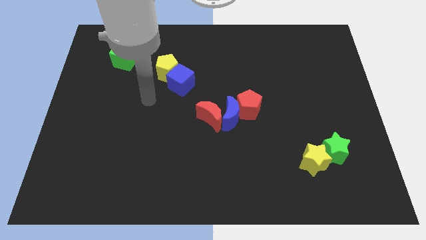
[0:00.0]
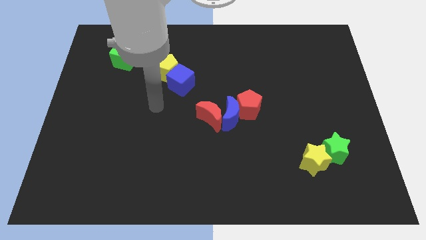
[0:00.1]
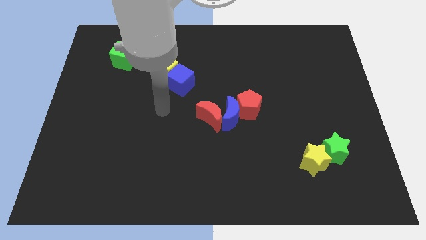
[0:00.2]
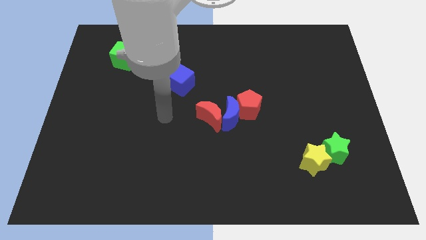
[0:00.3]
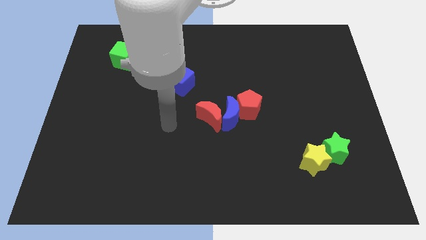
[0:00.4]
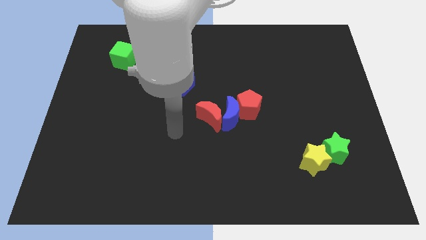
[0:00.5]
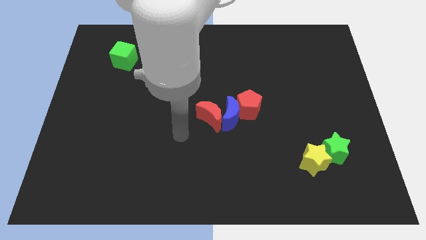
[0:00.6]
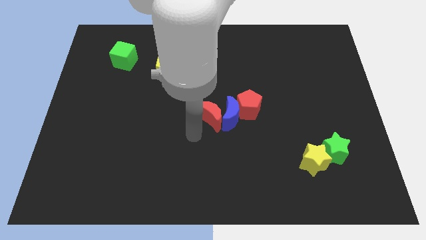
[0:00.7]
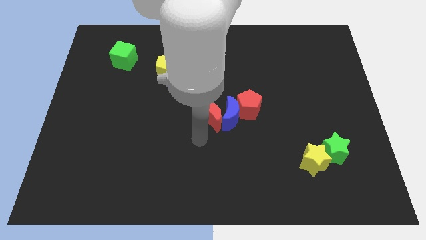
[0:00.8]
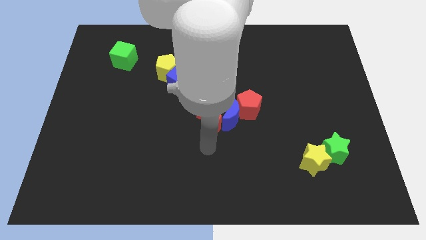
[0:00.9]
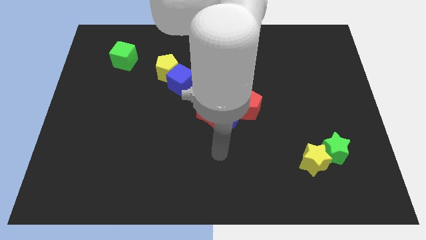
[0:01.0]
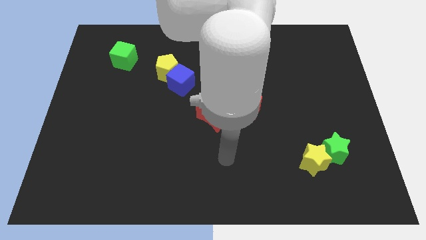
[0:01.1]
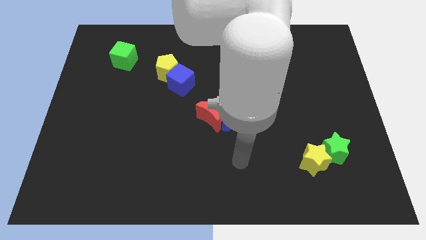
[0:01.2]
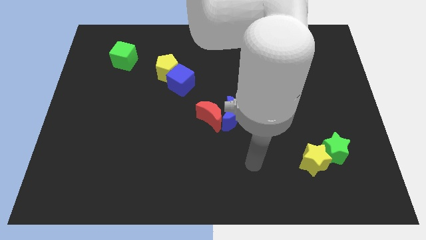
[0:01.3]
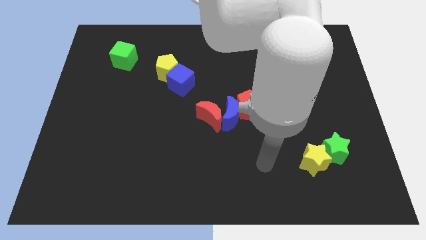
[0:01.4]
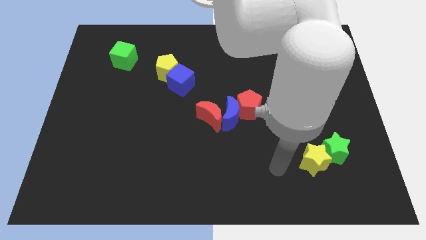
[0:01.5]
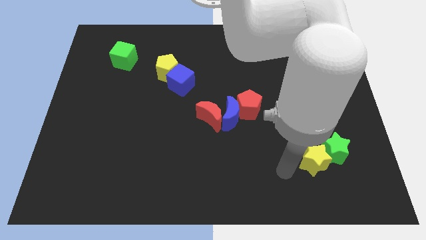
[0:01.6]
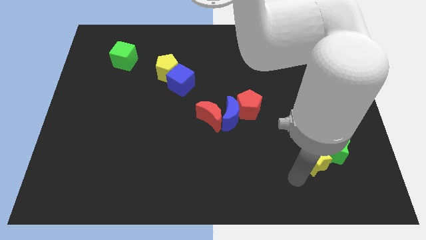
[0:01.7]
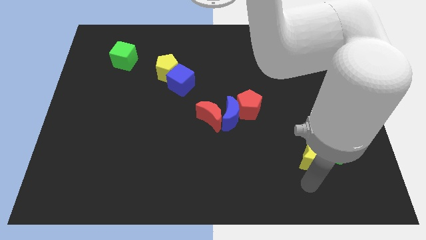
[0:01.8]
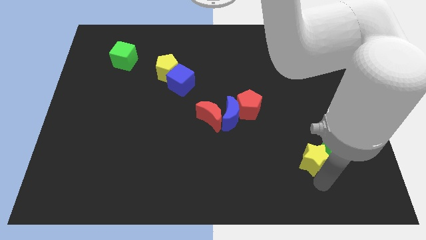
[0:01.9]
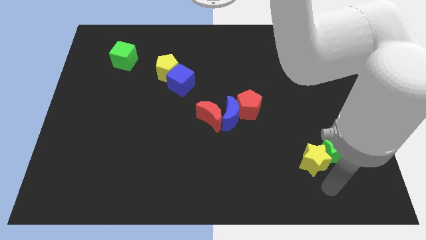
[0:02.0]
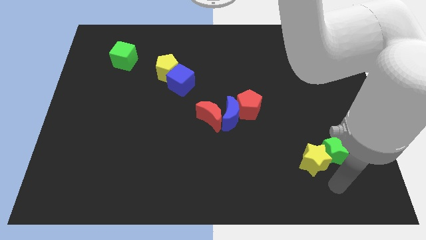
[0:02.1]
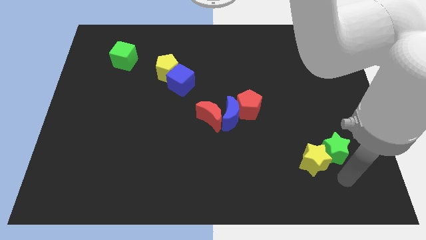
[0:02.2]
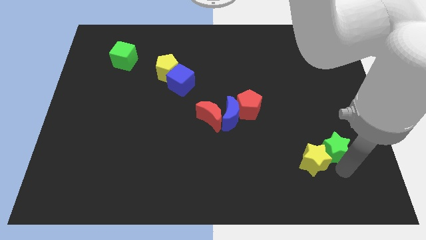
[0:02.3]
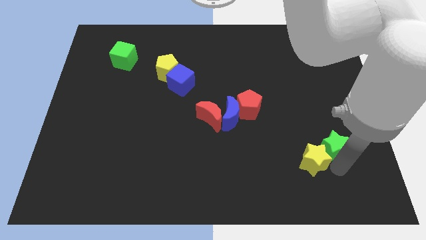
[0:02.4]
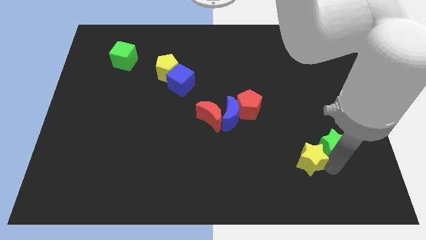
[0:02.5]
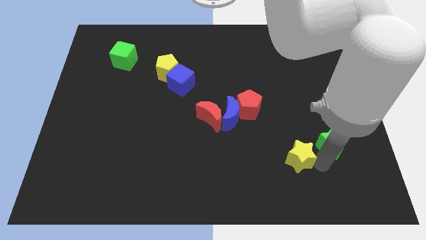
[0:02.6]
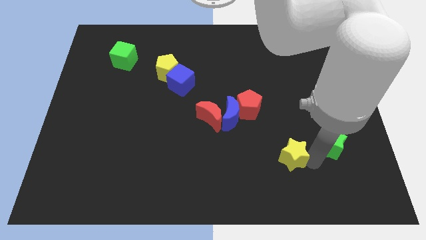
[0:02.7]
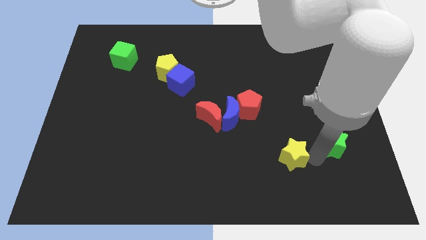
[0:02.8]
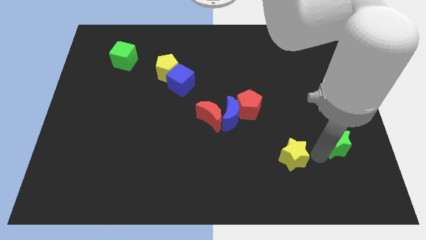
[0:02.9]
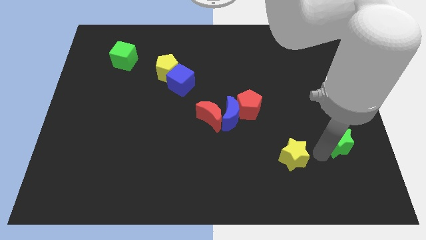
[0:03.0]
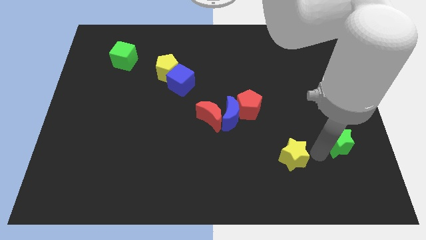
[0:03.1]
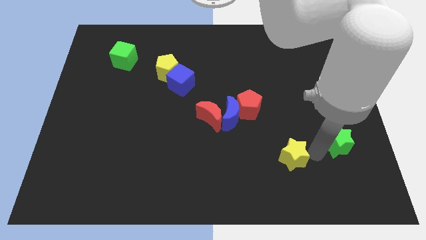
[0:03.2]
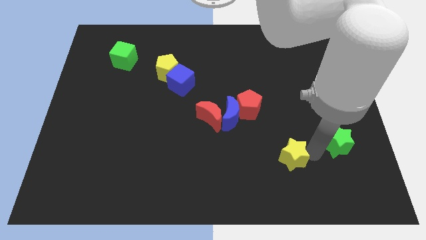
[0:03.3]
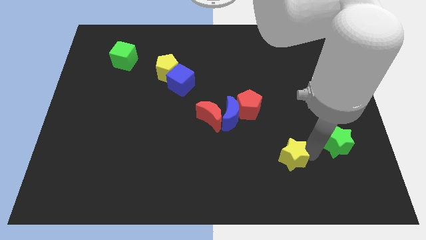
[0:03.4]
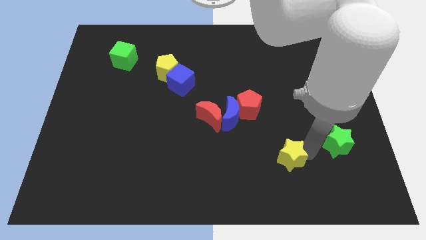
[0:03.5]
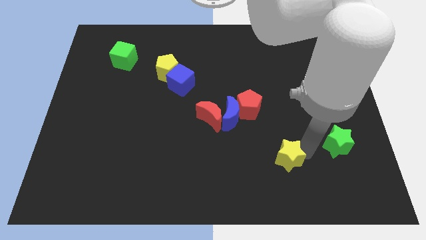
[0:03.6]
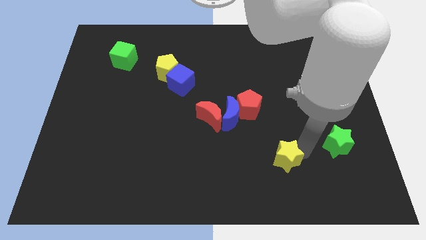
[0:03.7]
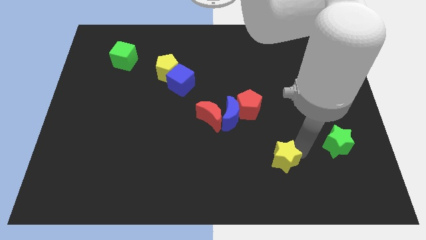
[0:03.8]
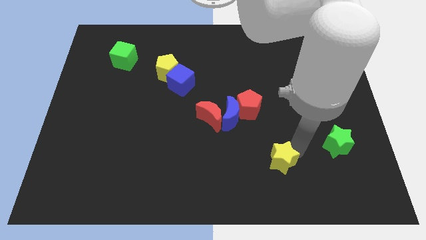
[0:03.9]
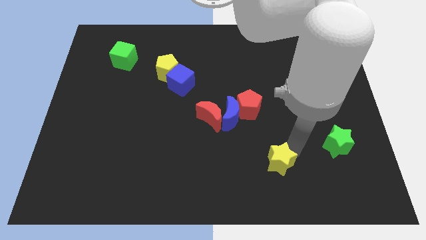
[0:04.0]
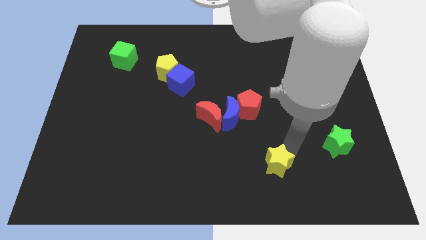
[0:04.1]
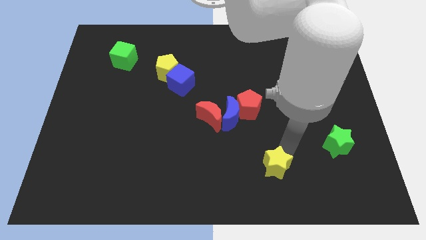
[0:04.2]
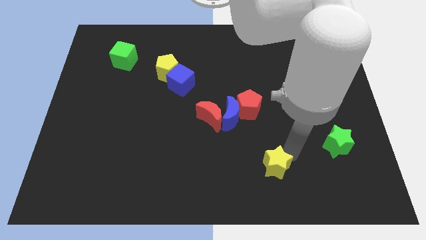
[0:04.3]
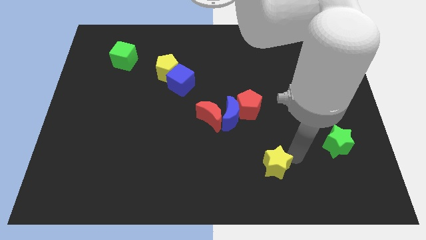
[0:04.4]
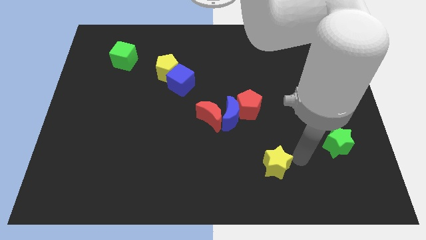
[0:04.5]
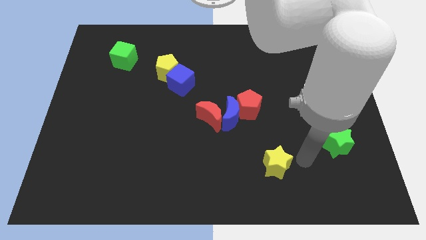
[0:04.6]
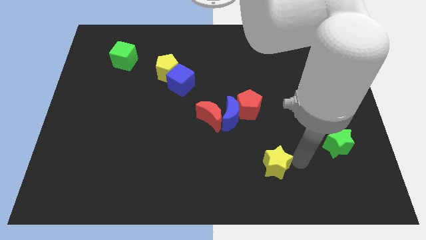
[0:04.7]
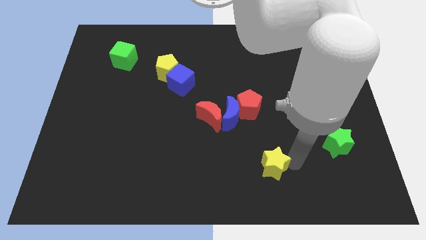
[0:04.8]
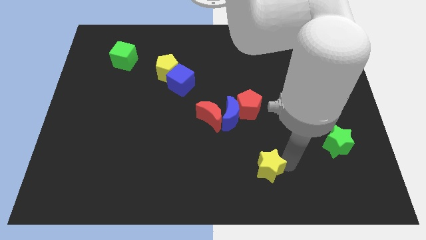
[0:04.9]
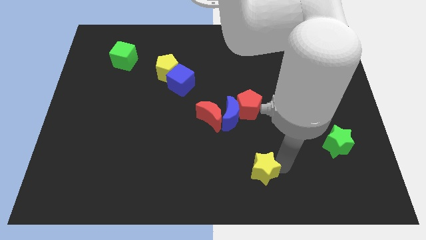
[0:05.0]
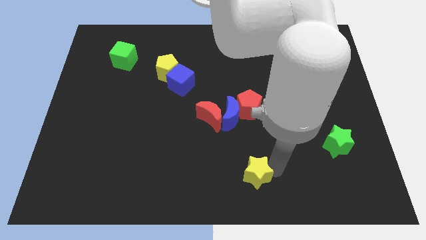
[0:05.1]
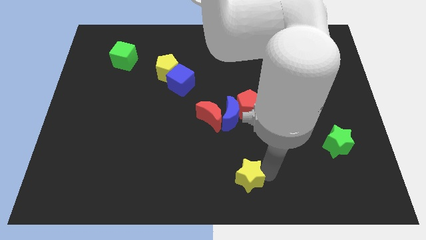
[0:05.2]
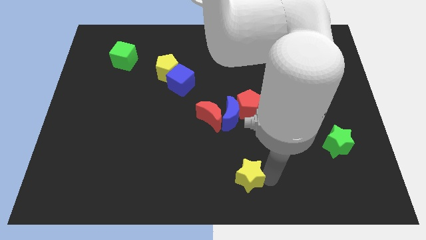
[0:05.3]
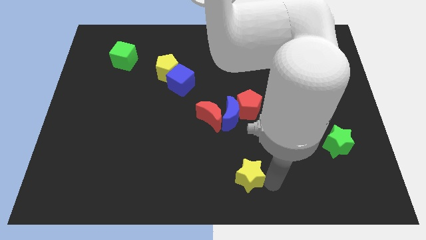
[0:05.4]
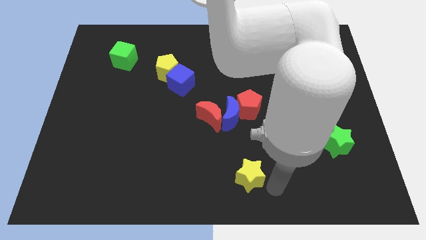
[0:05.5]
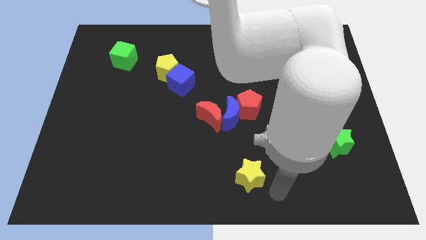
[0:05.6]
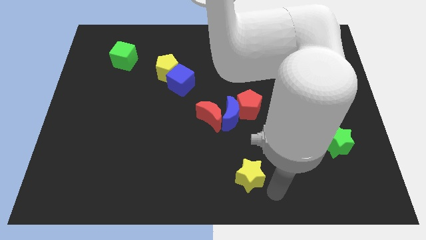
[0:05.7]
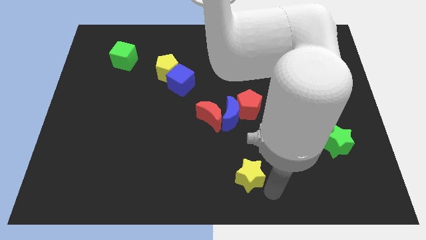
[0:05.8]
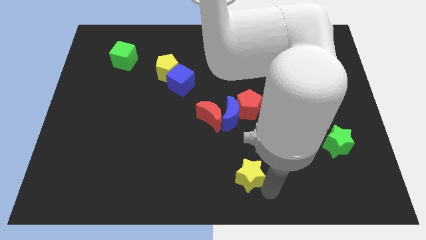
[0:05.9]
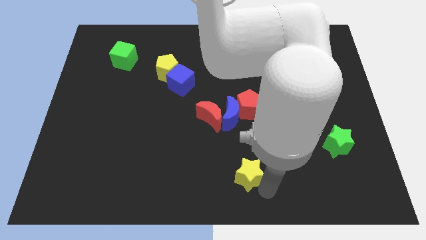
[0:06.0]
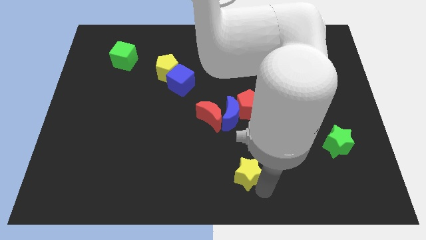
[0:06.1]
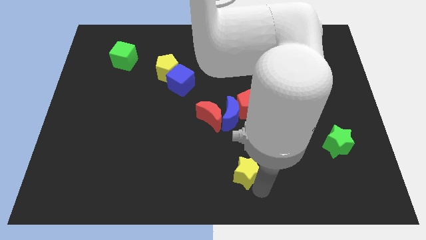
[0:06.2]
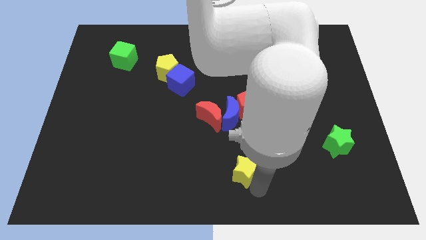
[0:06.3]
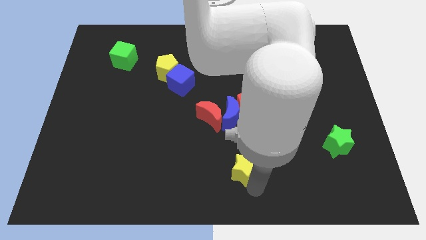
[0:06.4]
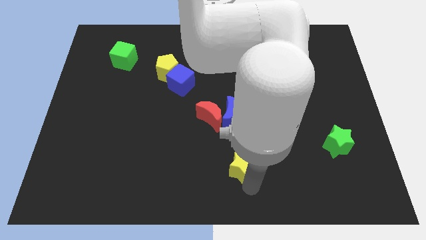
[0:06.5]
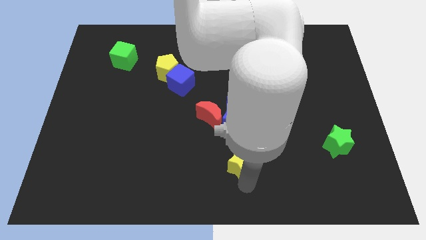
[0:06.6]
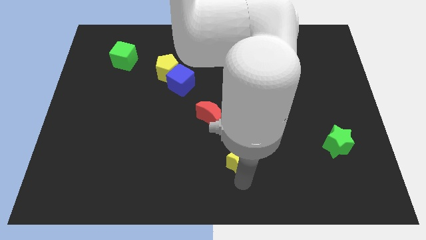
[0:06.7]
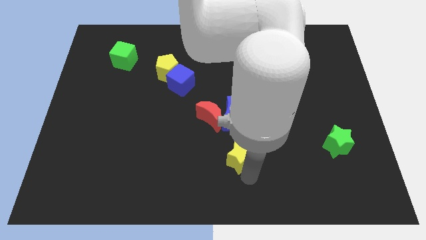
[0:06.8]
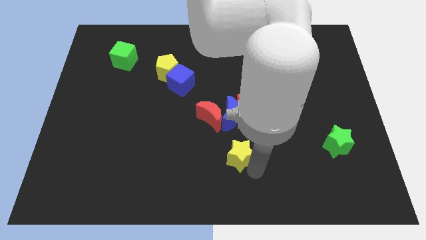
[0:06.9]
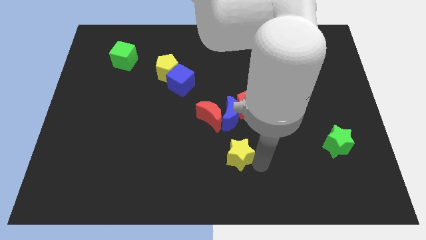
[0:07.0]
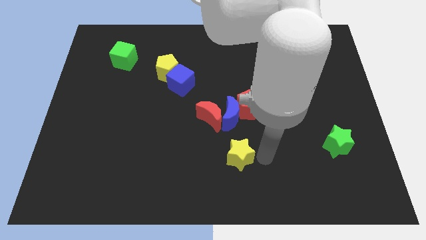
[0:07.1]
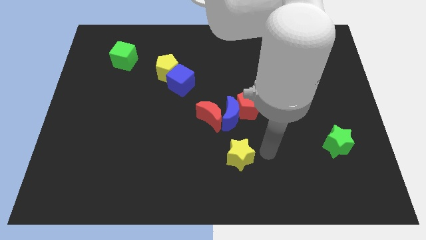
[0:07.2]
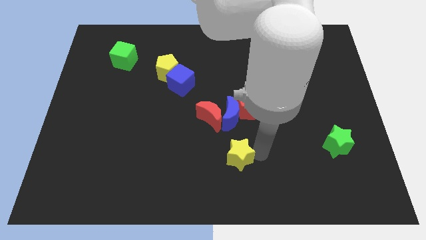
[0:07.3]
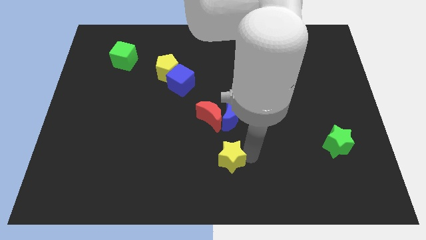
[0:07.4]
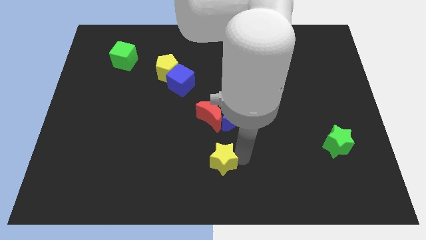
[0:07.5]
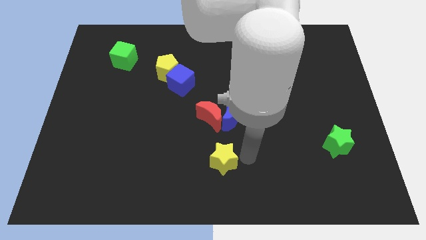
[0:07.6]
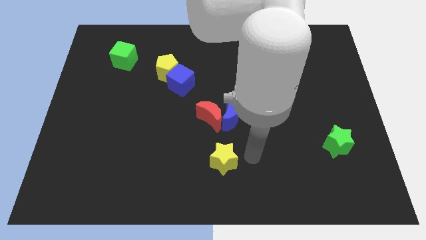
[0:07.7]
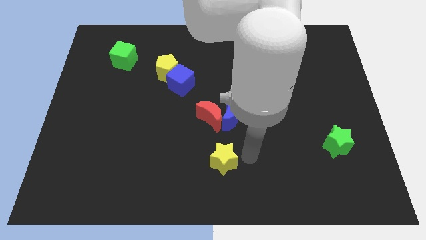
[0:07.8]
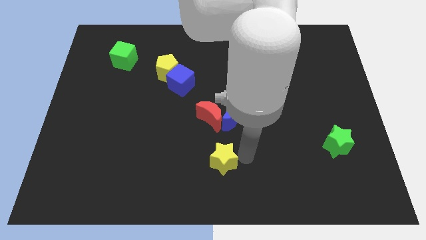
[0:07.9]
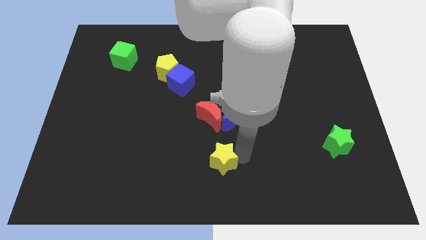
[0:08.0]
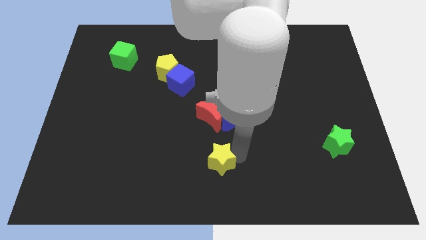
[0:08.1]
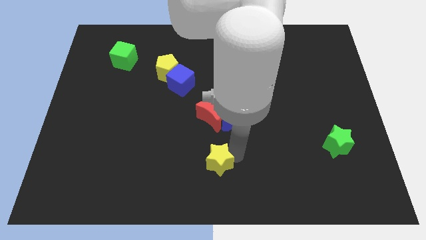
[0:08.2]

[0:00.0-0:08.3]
push the yellow star left
